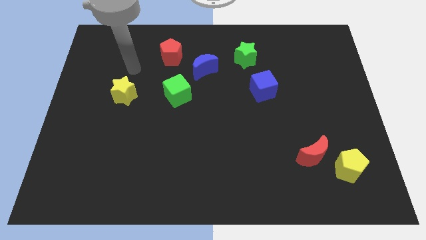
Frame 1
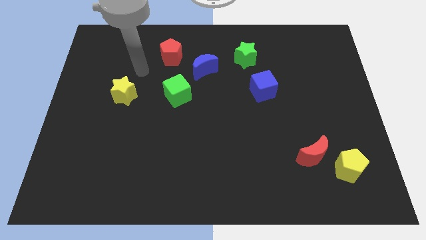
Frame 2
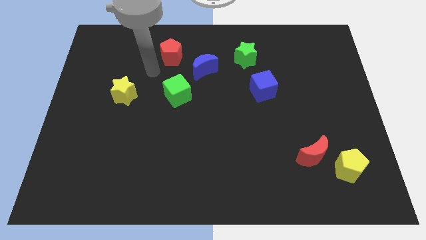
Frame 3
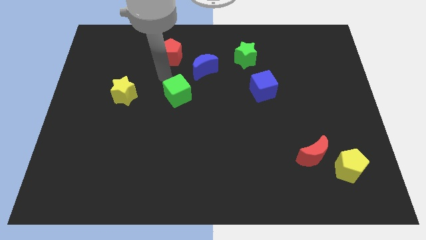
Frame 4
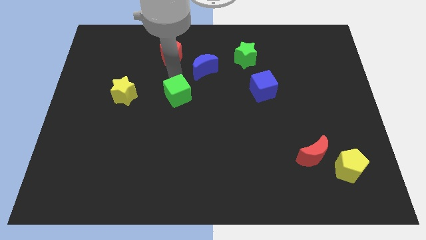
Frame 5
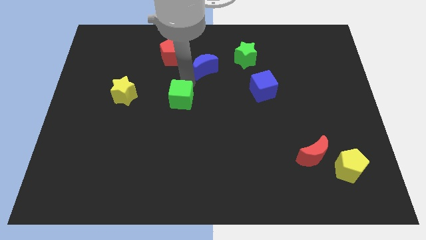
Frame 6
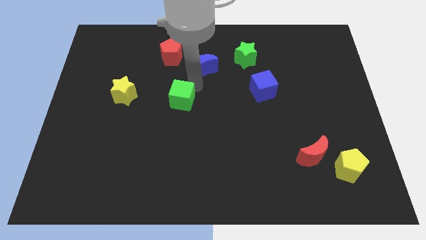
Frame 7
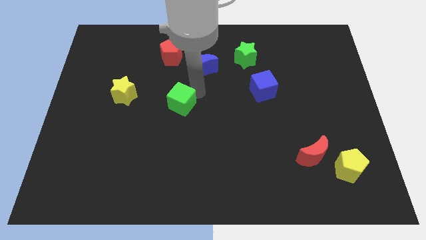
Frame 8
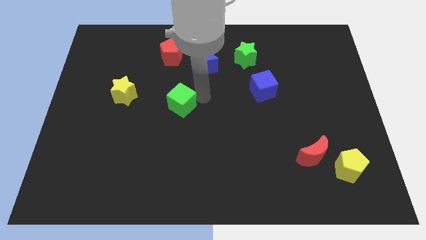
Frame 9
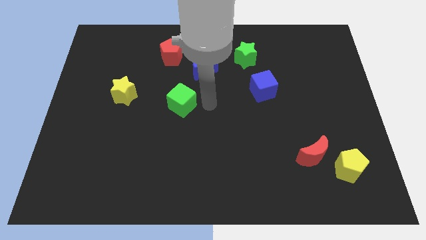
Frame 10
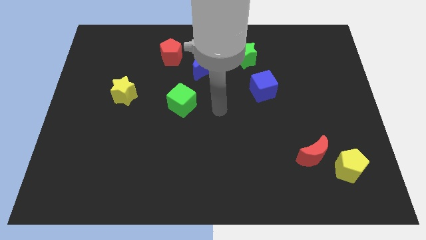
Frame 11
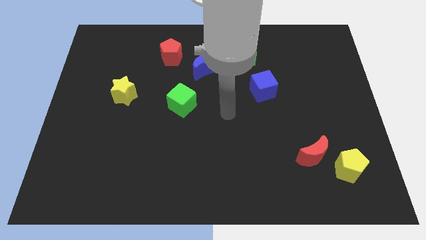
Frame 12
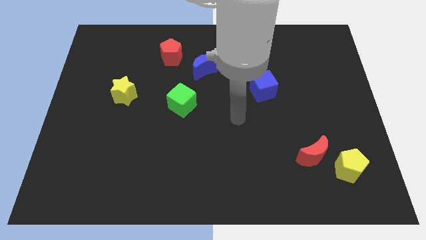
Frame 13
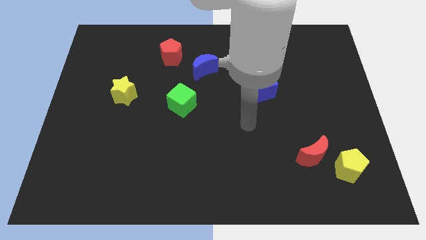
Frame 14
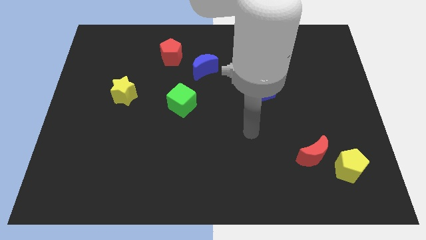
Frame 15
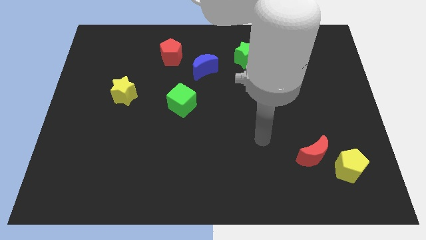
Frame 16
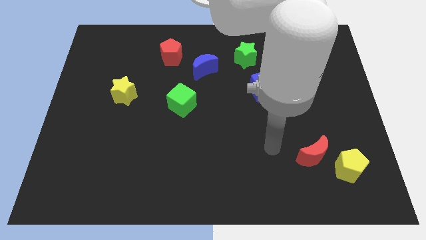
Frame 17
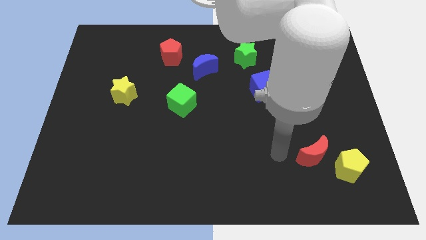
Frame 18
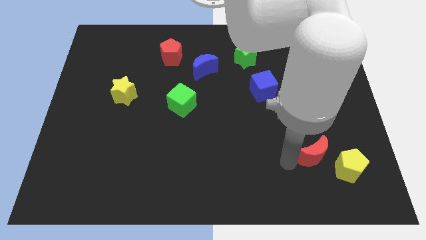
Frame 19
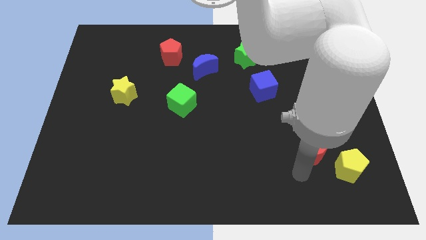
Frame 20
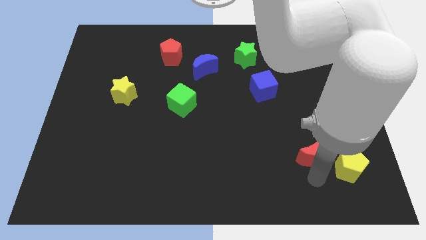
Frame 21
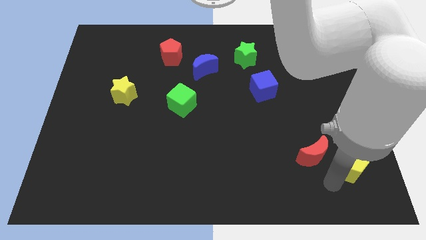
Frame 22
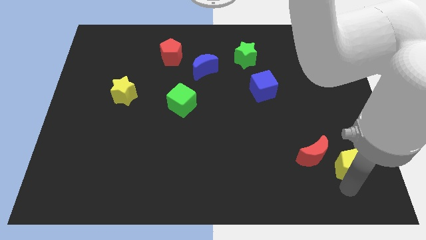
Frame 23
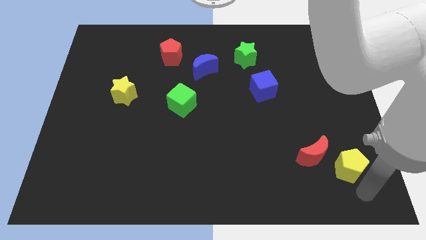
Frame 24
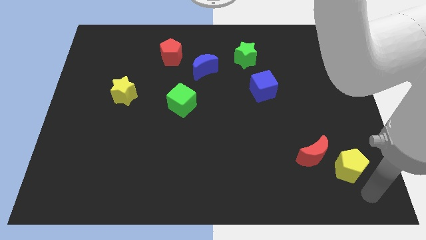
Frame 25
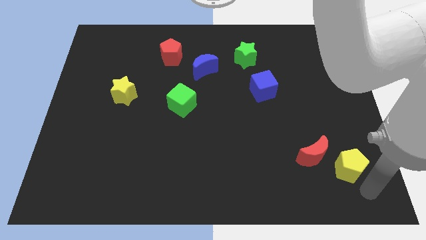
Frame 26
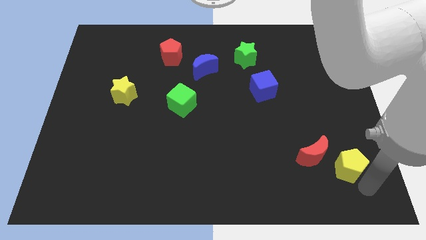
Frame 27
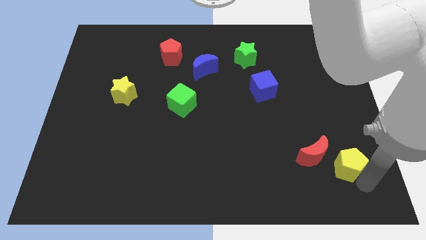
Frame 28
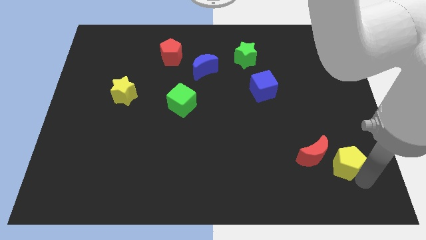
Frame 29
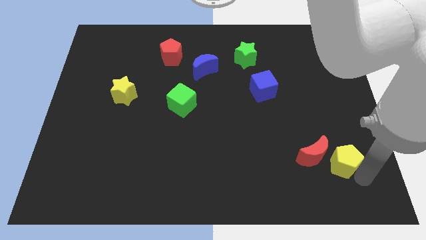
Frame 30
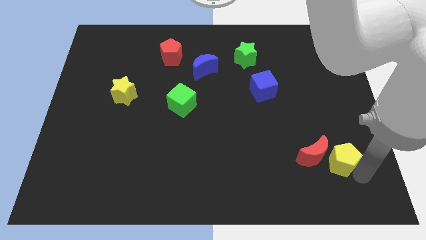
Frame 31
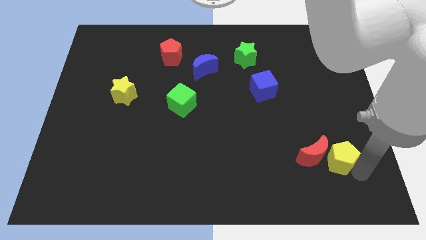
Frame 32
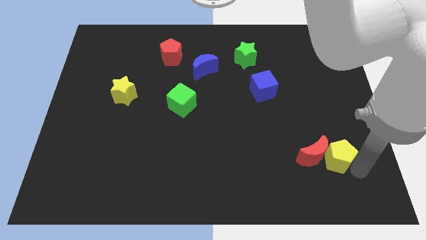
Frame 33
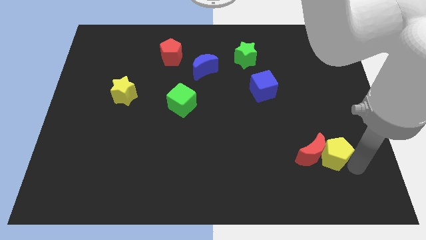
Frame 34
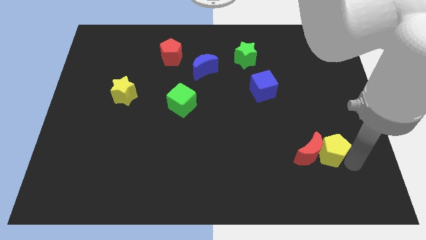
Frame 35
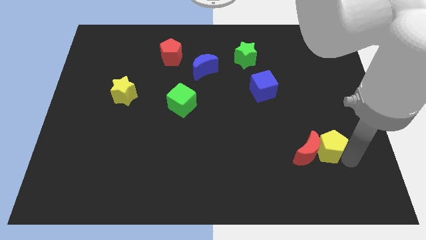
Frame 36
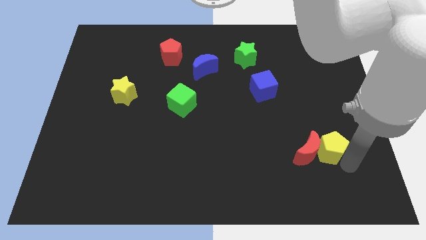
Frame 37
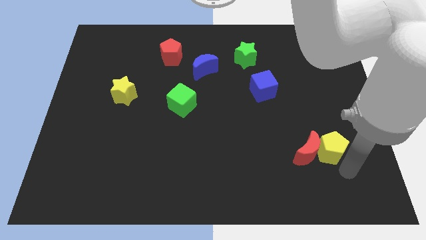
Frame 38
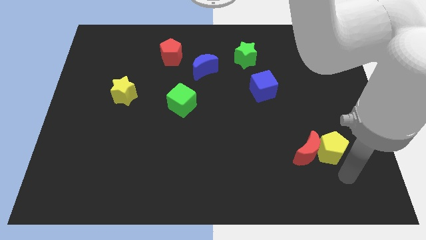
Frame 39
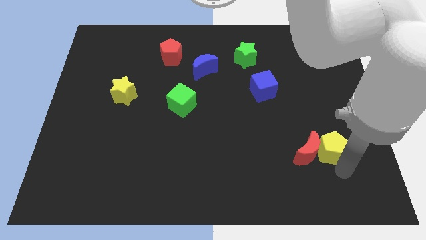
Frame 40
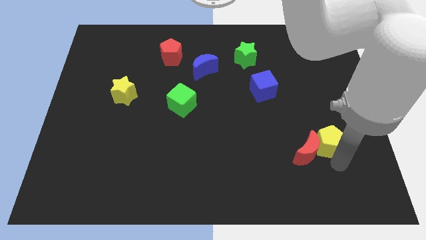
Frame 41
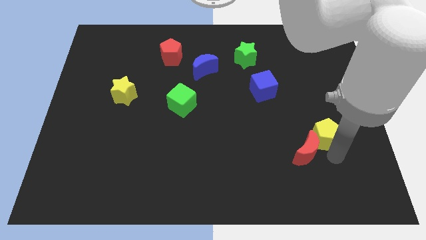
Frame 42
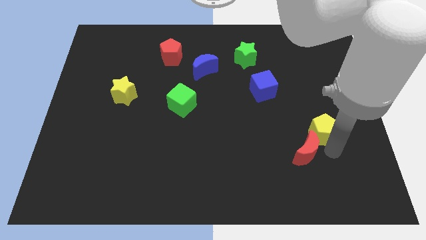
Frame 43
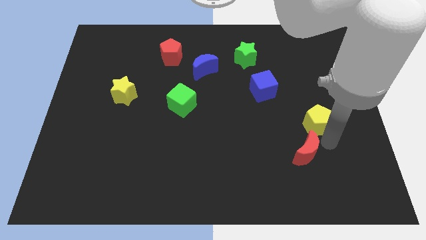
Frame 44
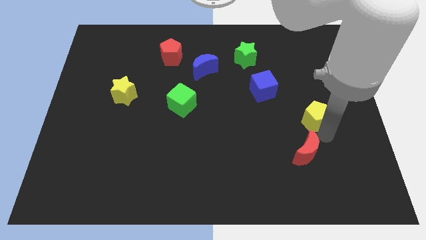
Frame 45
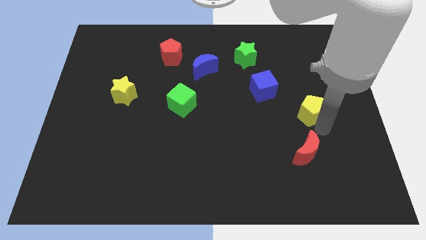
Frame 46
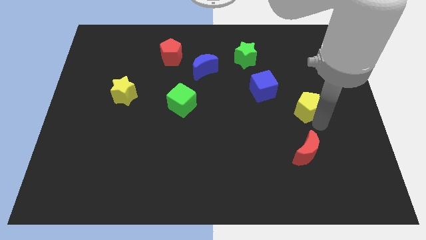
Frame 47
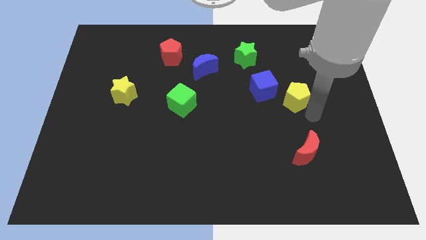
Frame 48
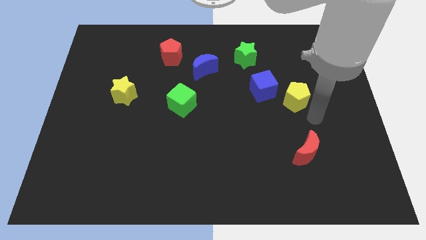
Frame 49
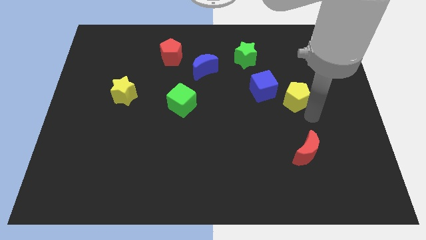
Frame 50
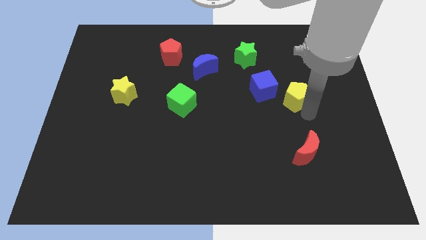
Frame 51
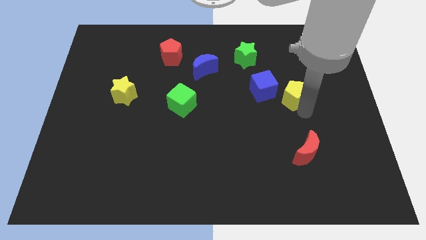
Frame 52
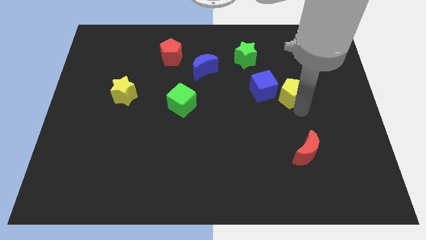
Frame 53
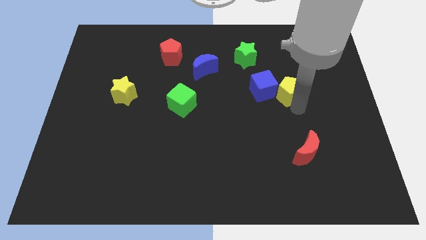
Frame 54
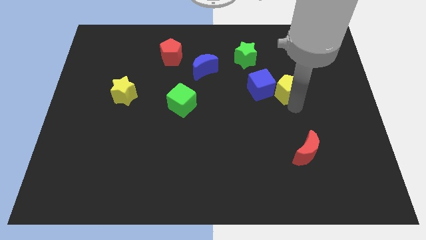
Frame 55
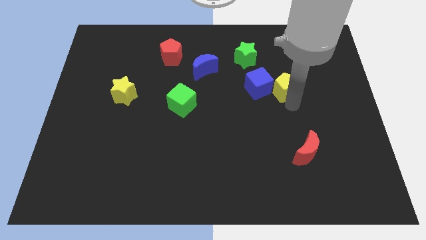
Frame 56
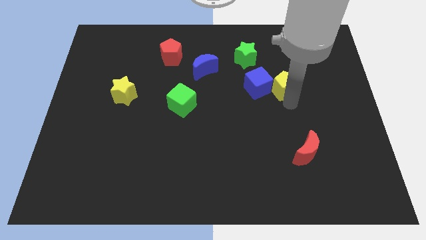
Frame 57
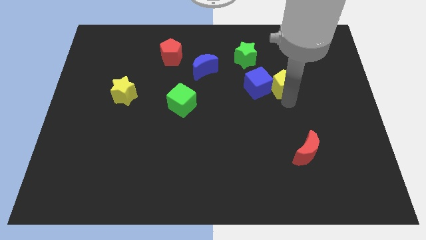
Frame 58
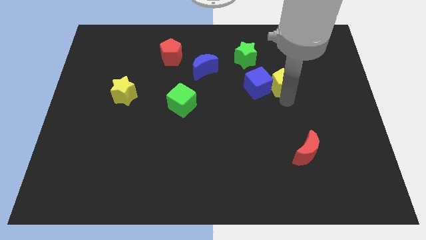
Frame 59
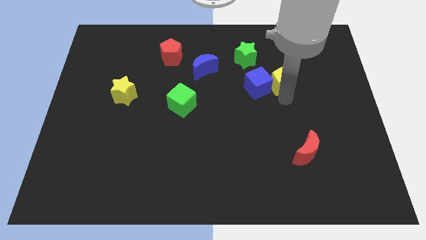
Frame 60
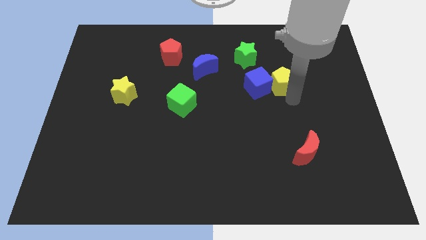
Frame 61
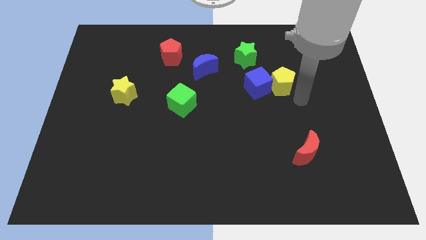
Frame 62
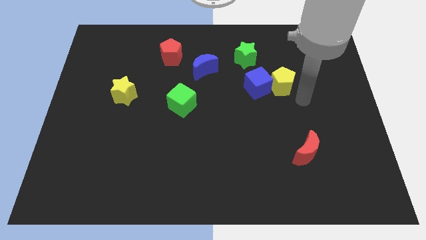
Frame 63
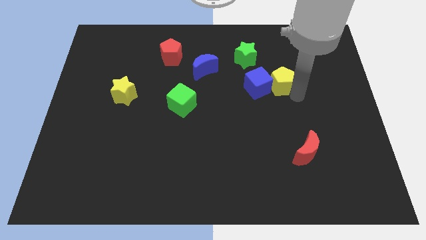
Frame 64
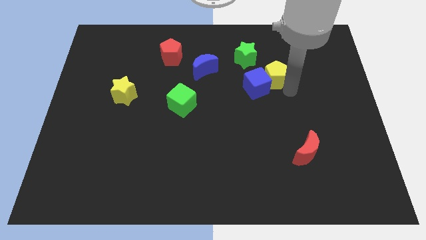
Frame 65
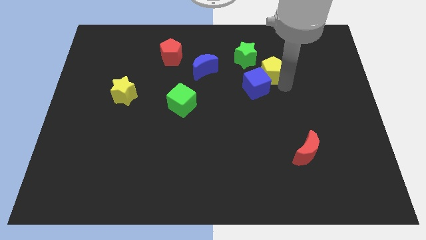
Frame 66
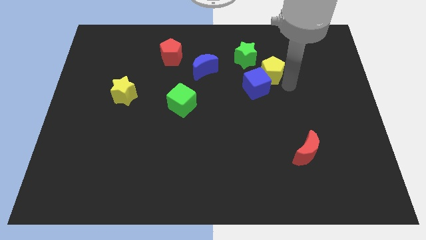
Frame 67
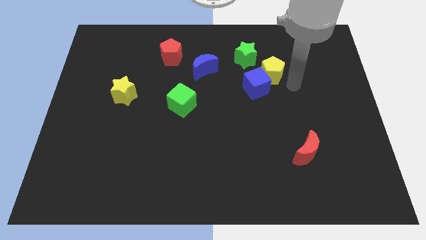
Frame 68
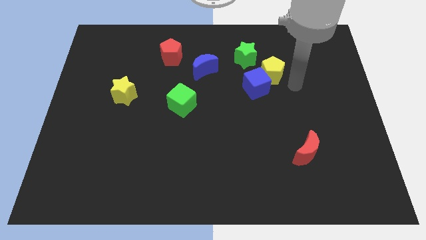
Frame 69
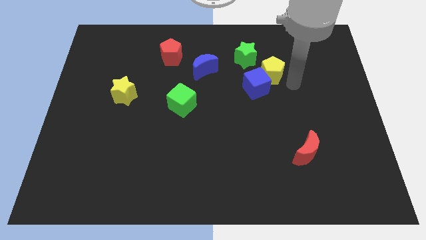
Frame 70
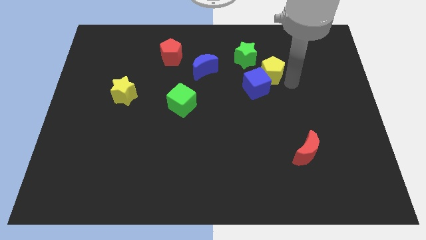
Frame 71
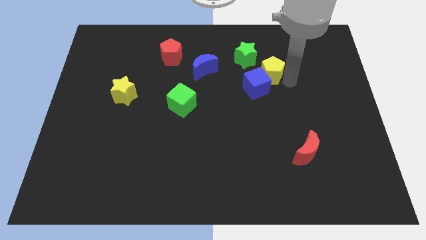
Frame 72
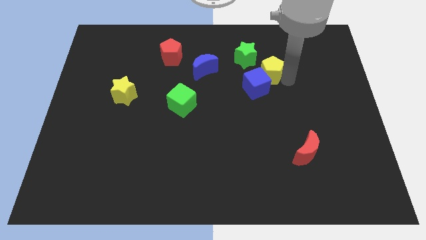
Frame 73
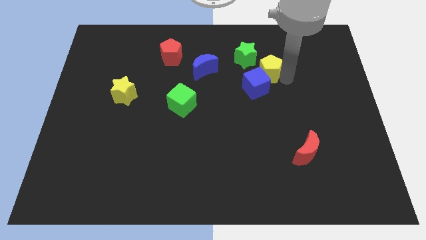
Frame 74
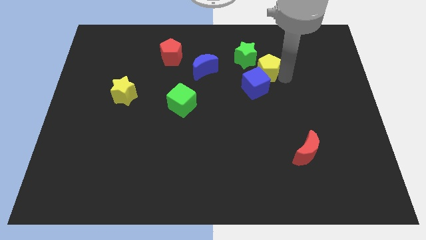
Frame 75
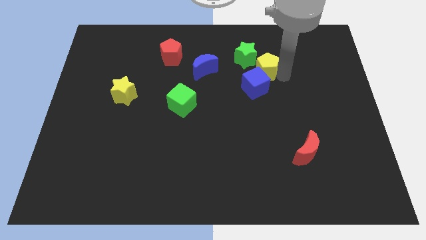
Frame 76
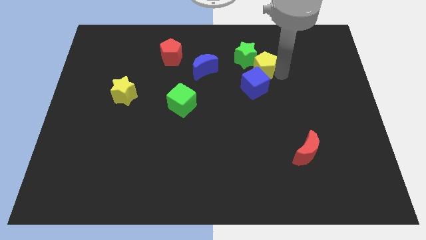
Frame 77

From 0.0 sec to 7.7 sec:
slide the yellow pentagon close to the green star
